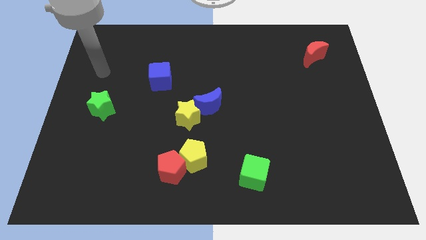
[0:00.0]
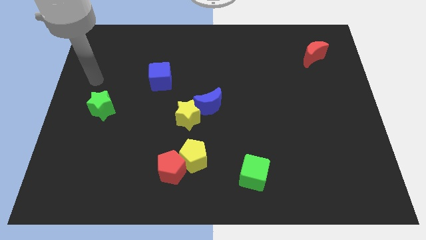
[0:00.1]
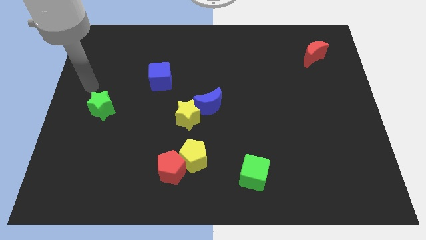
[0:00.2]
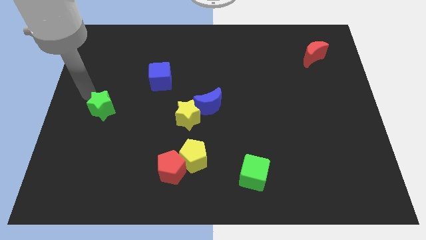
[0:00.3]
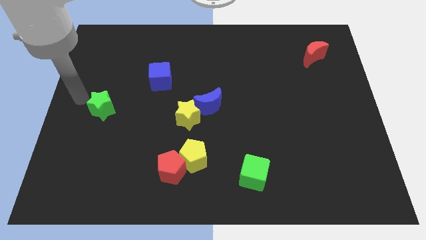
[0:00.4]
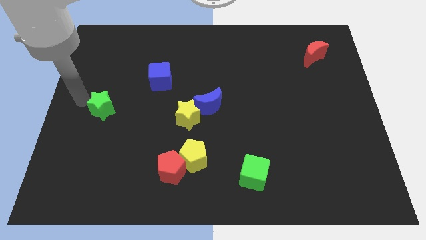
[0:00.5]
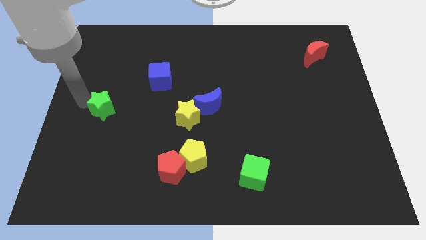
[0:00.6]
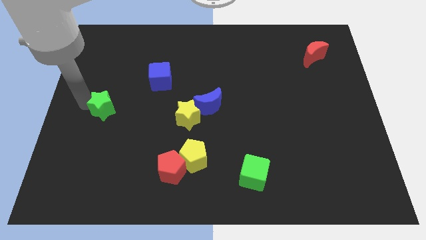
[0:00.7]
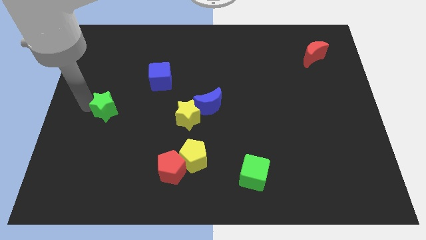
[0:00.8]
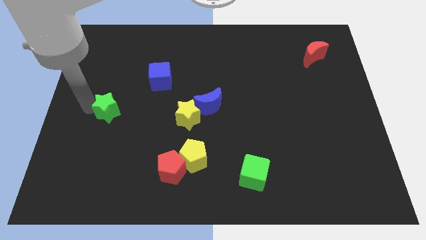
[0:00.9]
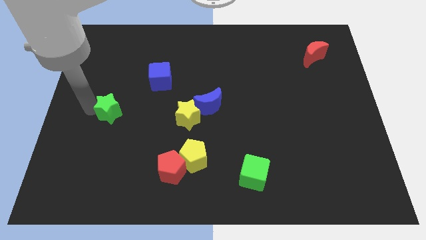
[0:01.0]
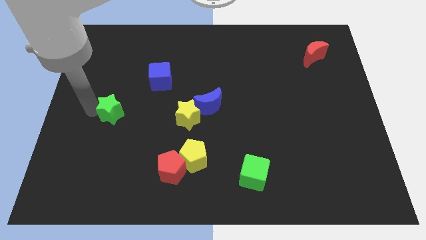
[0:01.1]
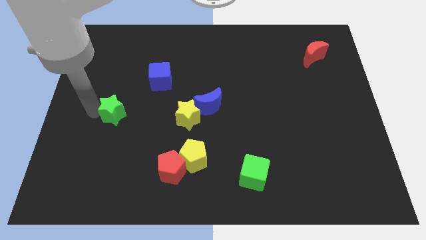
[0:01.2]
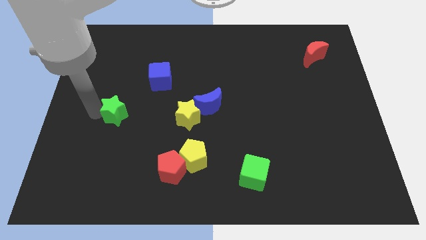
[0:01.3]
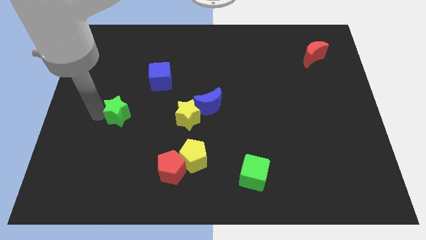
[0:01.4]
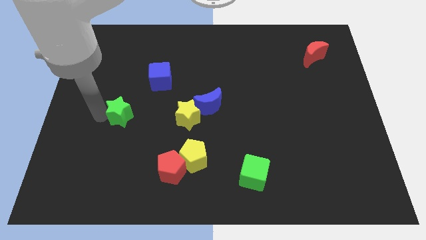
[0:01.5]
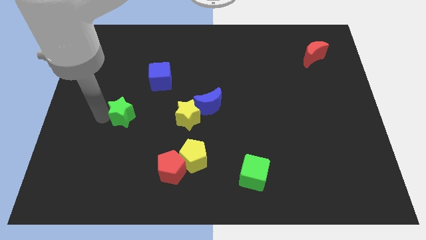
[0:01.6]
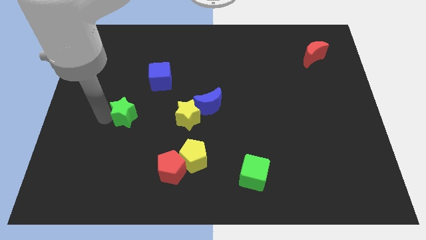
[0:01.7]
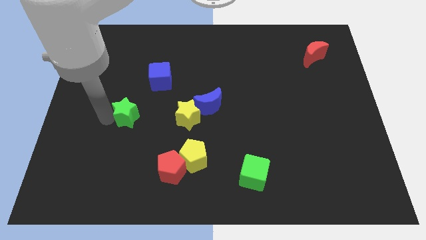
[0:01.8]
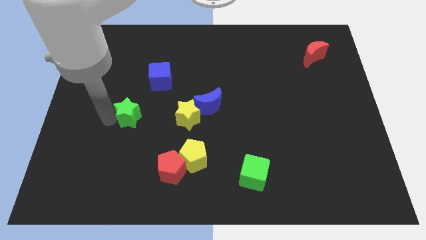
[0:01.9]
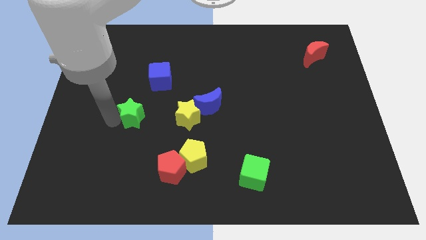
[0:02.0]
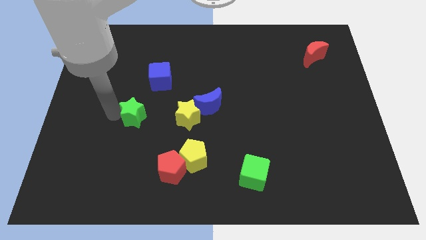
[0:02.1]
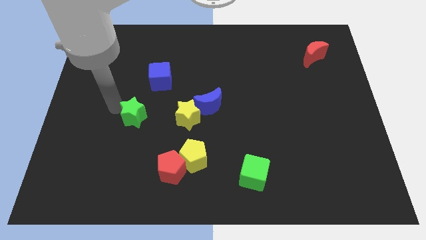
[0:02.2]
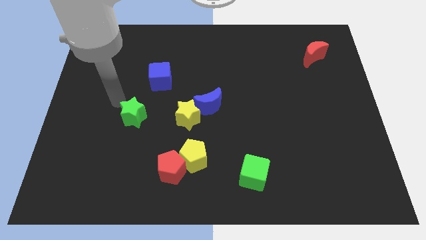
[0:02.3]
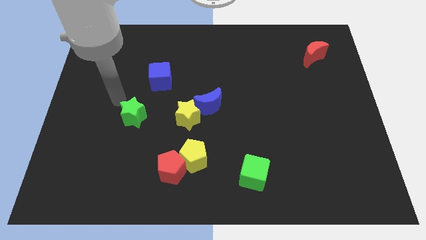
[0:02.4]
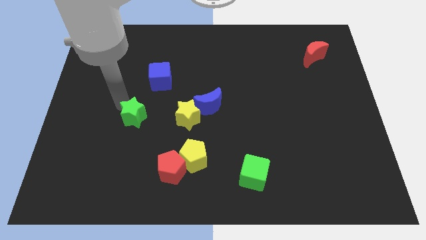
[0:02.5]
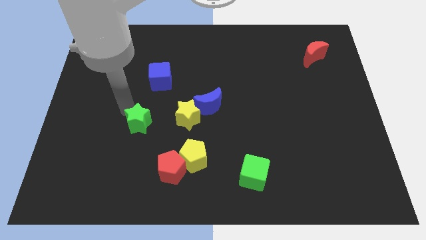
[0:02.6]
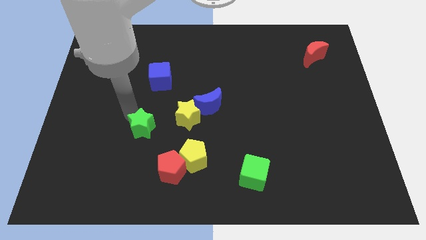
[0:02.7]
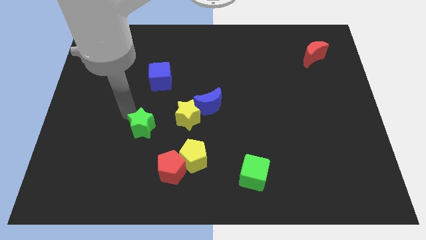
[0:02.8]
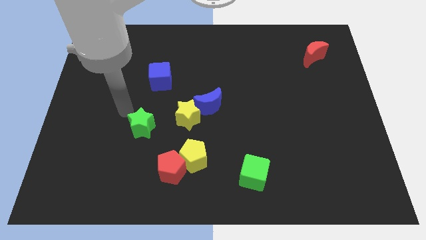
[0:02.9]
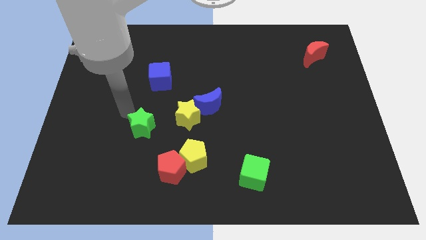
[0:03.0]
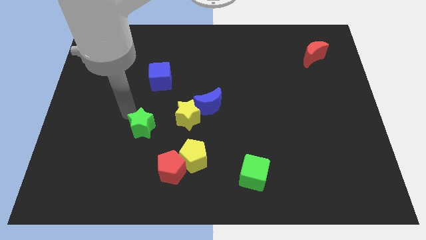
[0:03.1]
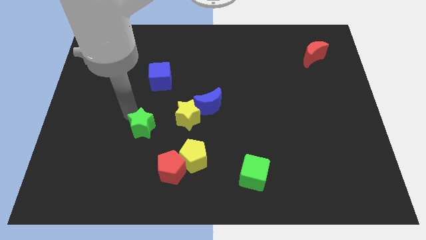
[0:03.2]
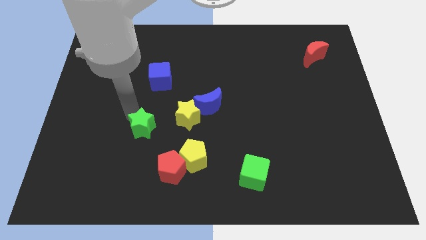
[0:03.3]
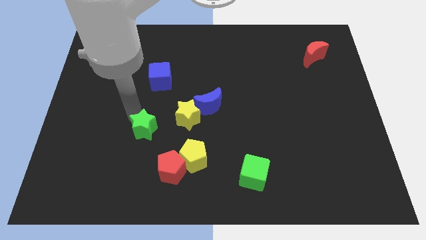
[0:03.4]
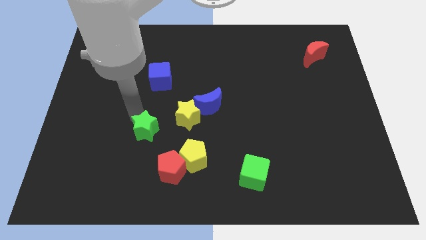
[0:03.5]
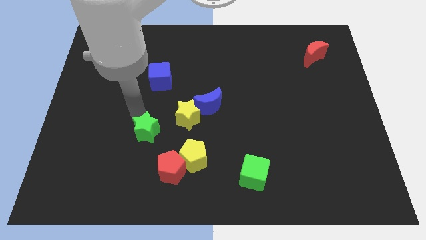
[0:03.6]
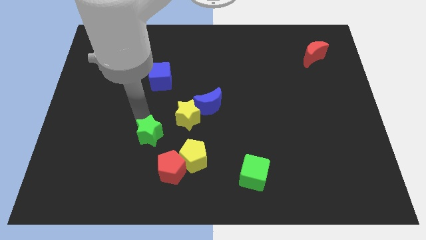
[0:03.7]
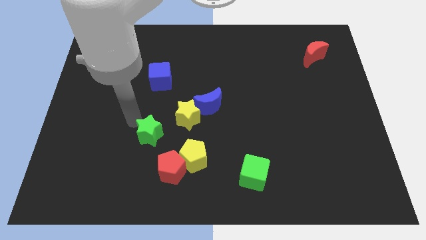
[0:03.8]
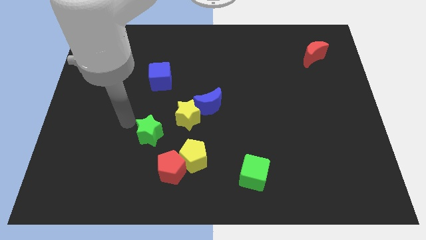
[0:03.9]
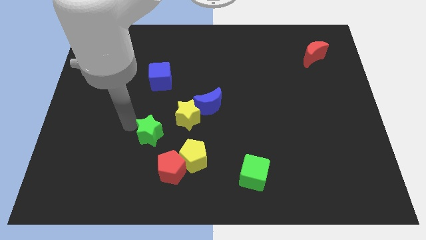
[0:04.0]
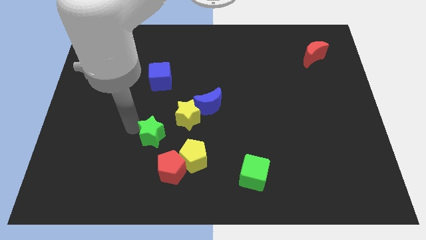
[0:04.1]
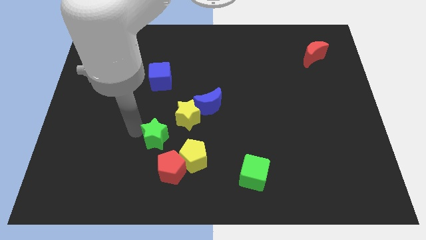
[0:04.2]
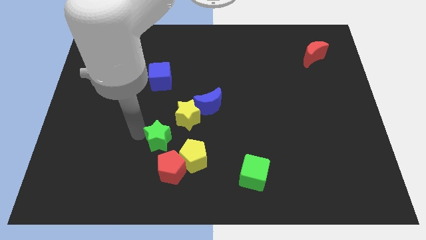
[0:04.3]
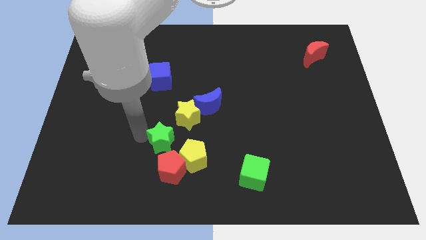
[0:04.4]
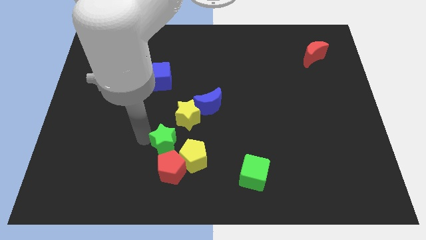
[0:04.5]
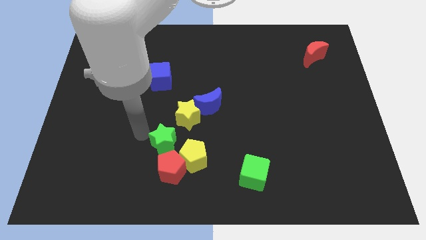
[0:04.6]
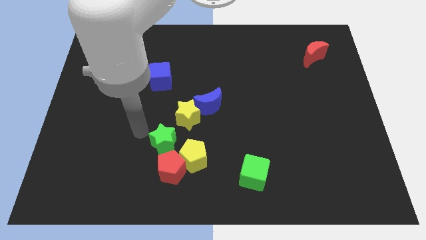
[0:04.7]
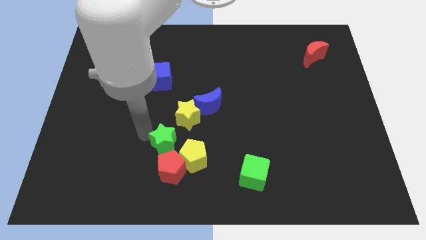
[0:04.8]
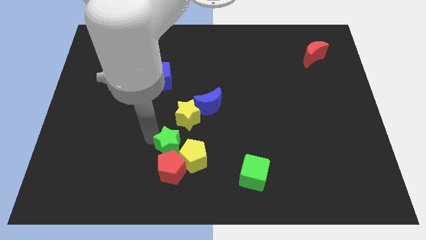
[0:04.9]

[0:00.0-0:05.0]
move the green star towards the yellow pentagon

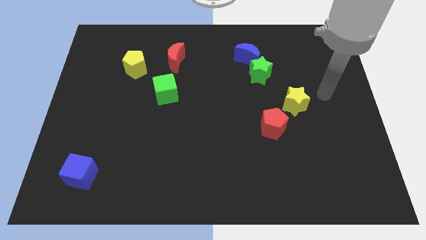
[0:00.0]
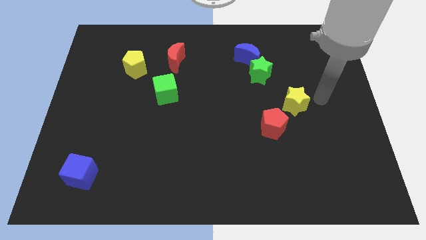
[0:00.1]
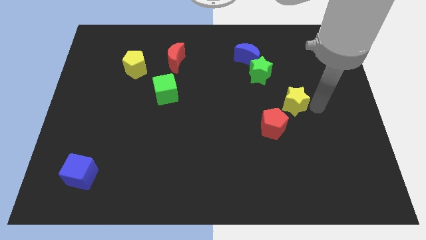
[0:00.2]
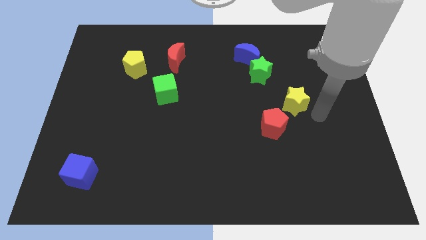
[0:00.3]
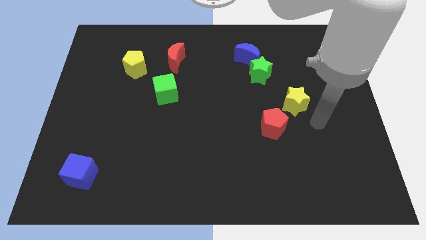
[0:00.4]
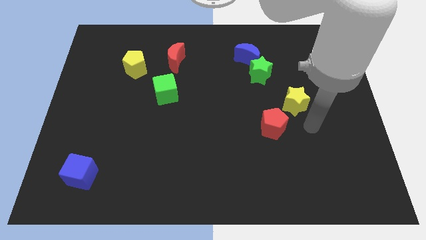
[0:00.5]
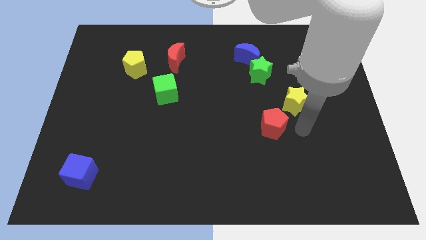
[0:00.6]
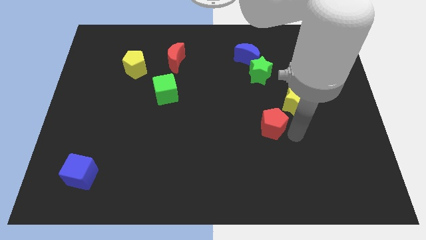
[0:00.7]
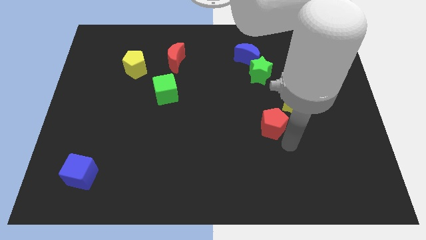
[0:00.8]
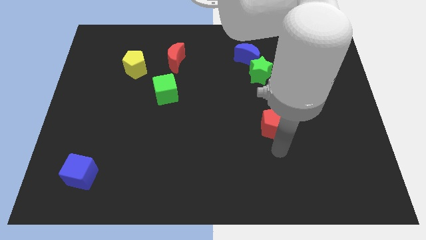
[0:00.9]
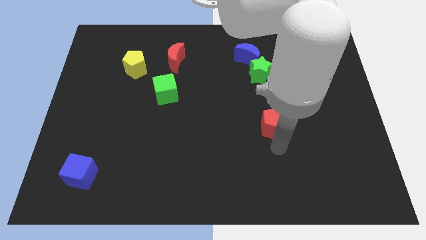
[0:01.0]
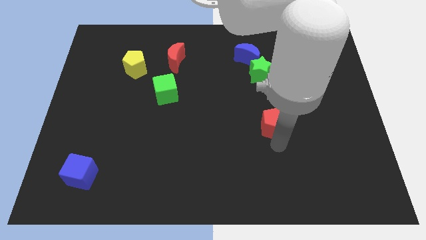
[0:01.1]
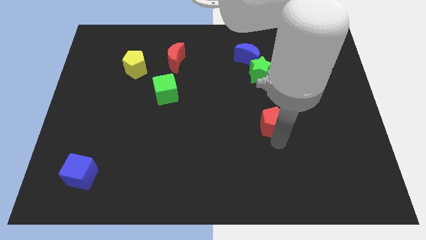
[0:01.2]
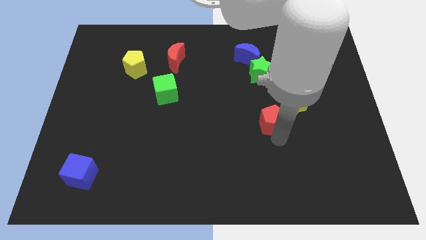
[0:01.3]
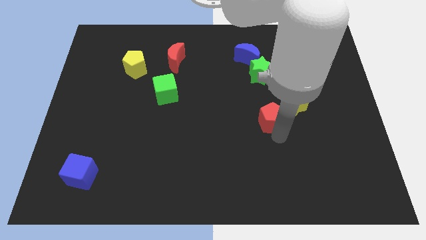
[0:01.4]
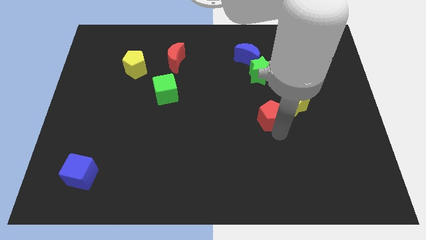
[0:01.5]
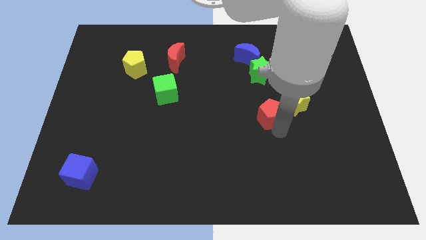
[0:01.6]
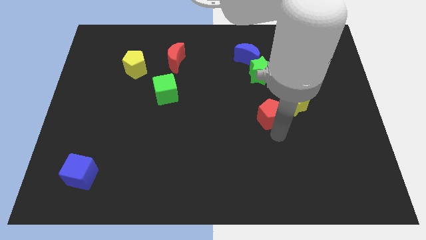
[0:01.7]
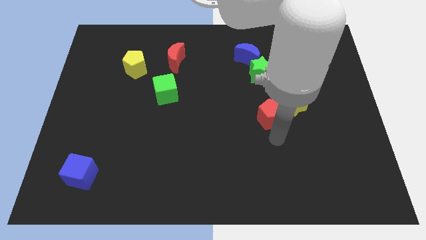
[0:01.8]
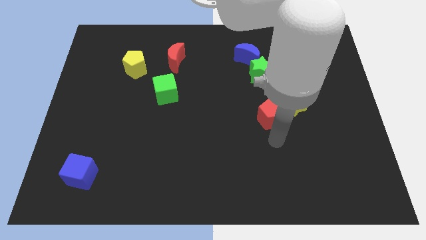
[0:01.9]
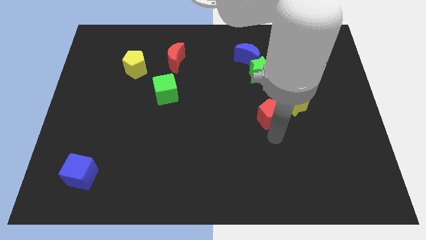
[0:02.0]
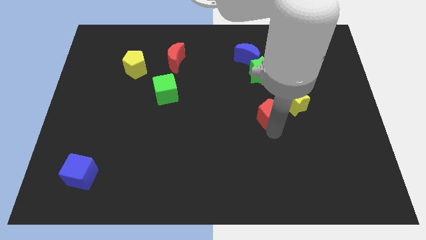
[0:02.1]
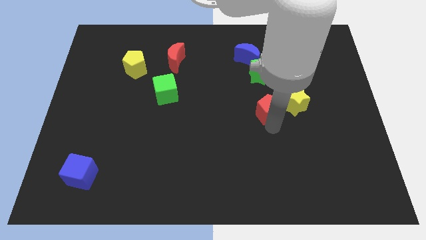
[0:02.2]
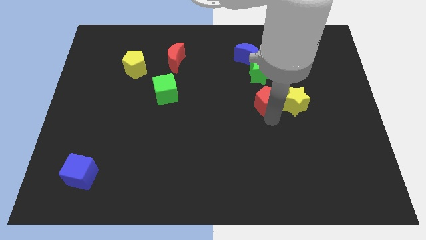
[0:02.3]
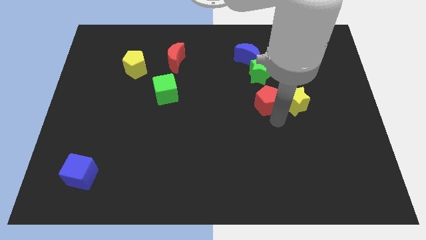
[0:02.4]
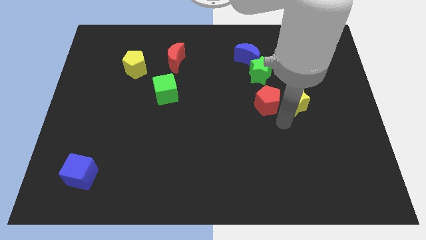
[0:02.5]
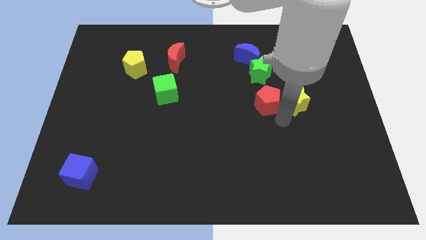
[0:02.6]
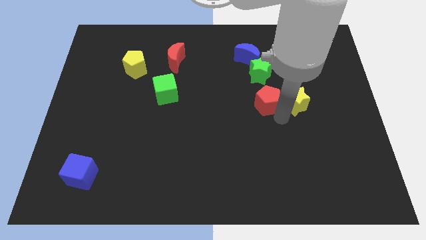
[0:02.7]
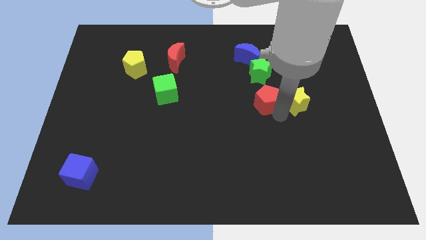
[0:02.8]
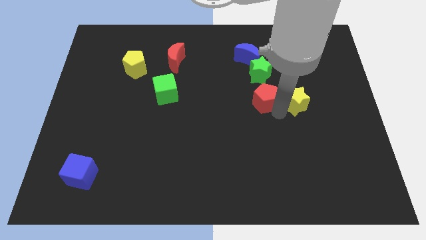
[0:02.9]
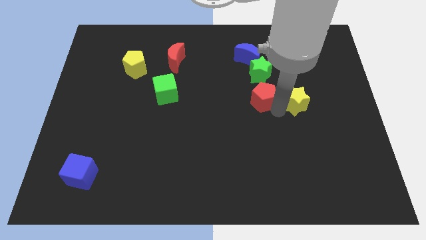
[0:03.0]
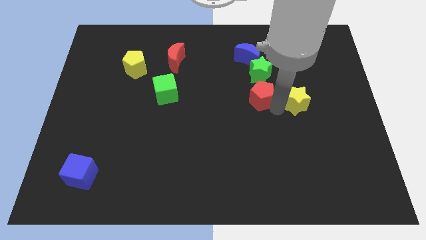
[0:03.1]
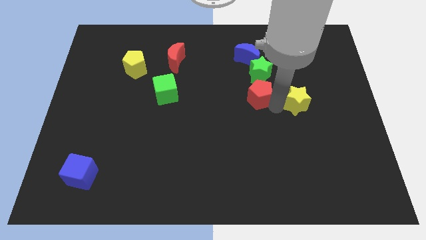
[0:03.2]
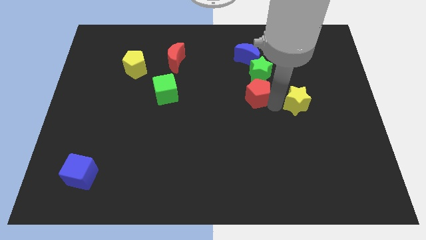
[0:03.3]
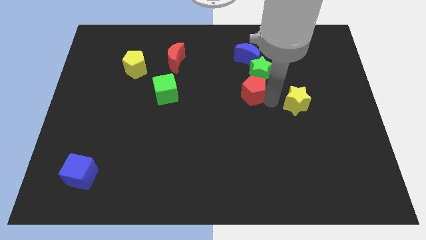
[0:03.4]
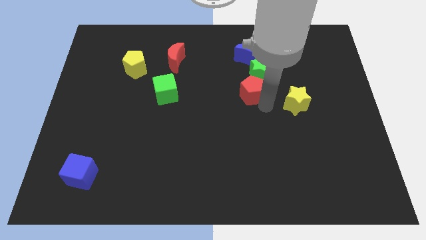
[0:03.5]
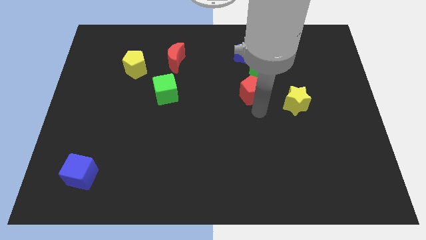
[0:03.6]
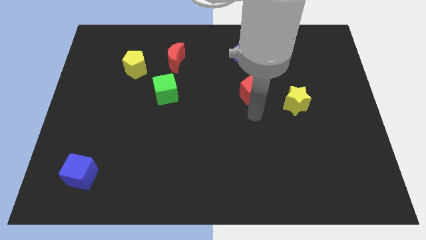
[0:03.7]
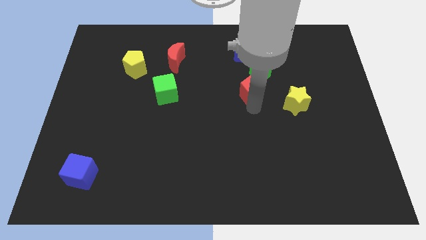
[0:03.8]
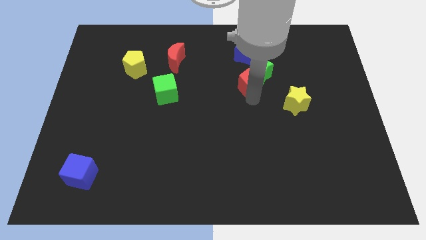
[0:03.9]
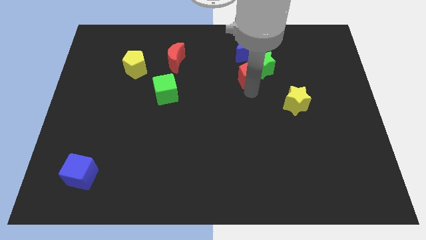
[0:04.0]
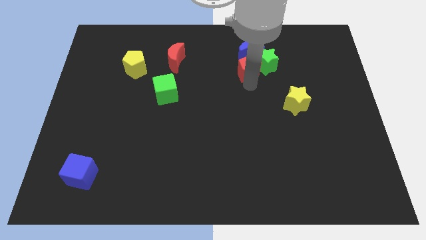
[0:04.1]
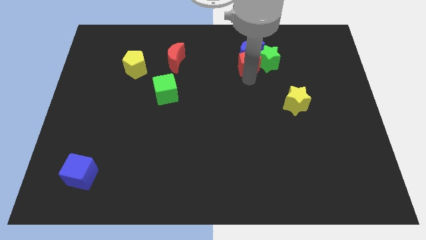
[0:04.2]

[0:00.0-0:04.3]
move the red pentagon next to the blue moon
